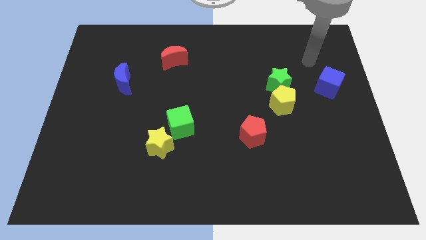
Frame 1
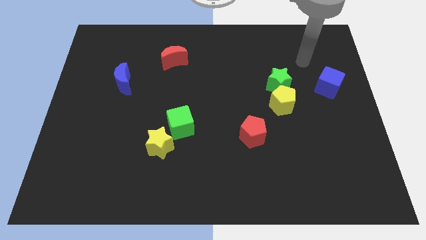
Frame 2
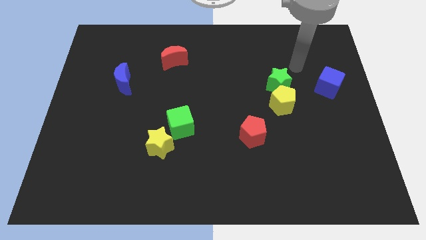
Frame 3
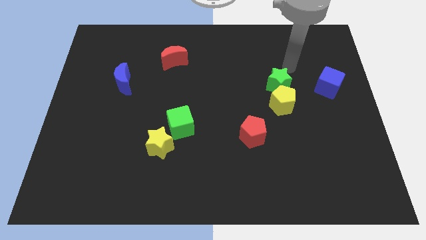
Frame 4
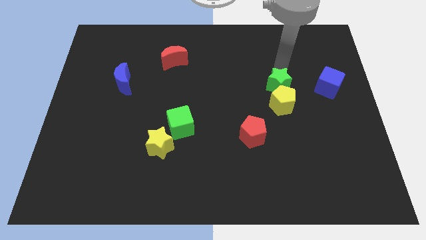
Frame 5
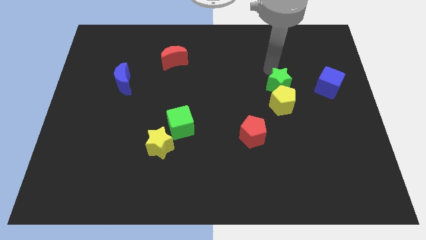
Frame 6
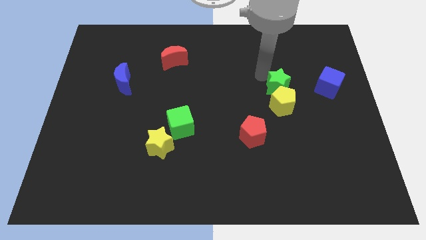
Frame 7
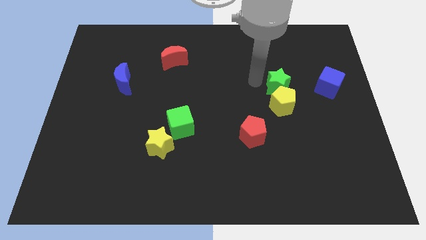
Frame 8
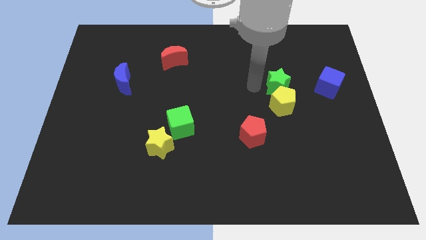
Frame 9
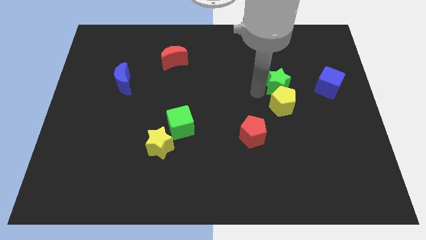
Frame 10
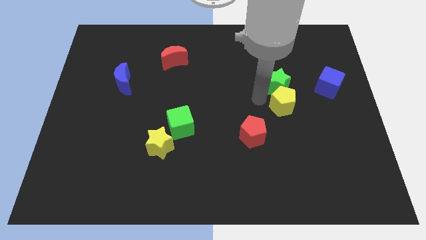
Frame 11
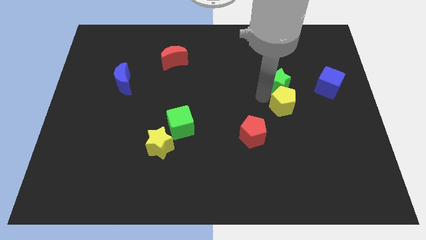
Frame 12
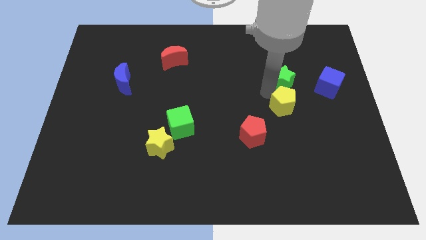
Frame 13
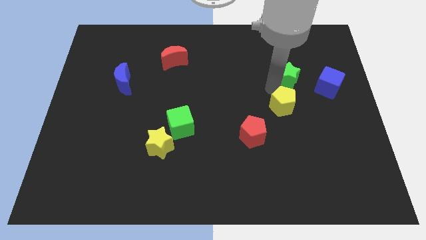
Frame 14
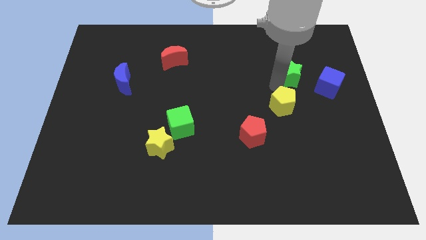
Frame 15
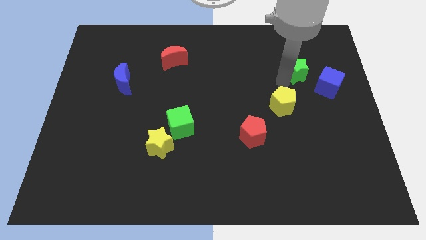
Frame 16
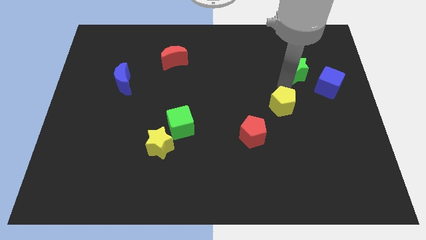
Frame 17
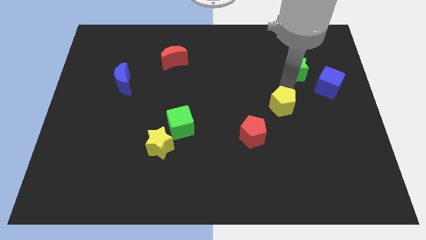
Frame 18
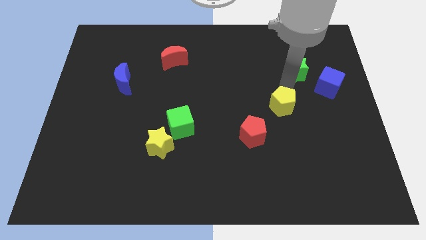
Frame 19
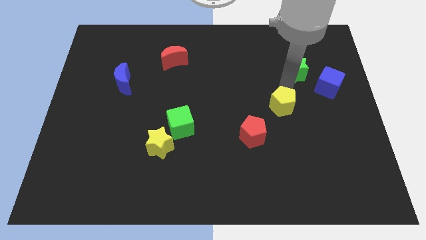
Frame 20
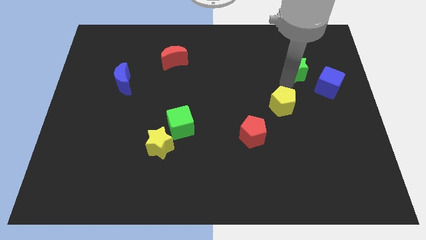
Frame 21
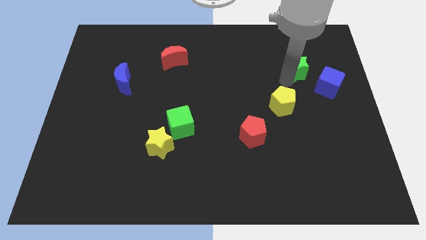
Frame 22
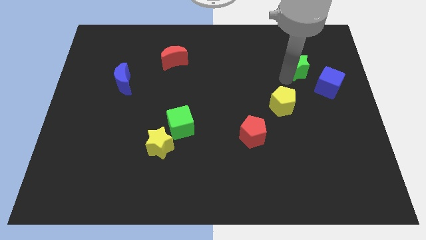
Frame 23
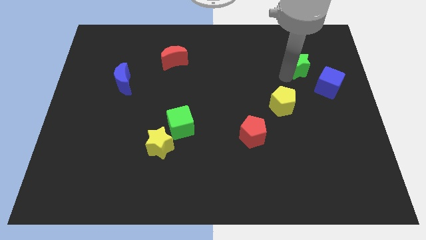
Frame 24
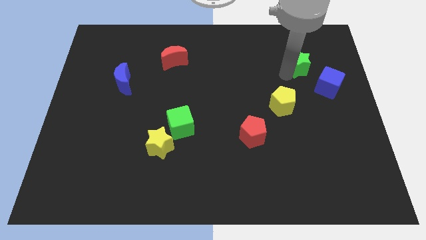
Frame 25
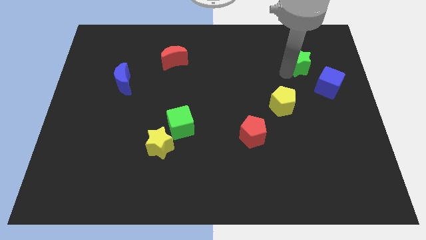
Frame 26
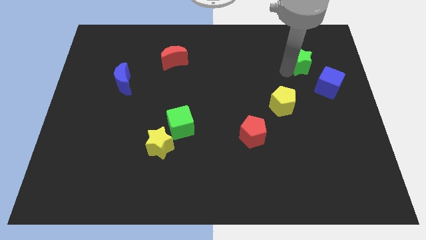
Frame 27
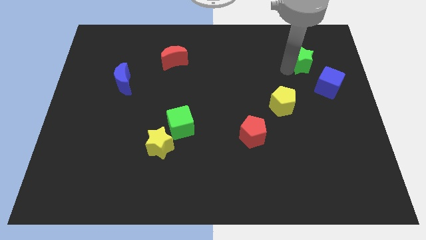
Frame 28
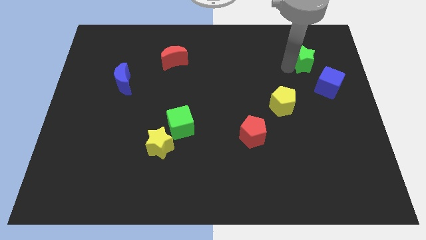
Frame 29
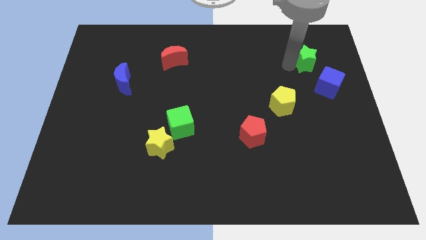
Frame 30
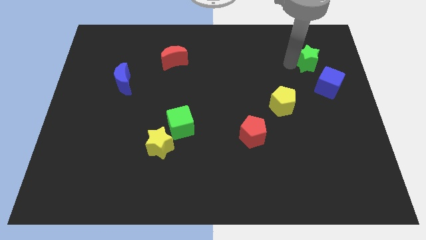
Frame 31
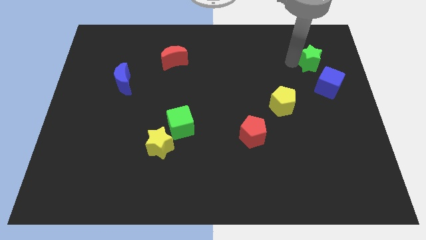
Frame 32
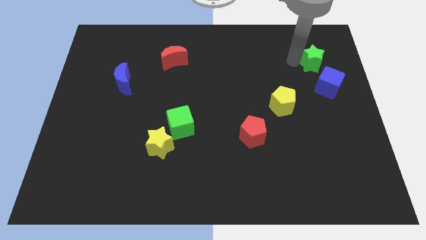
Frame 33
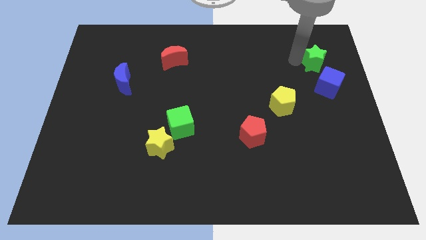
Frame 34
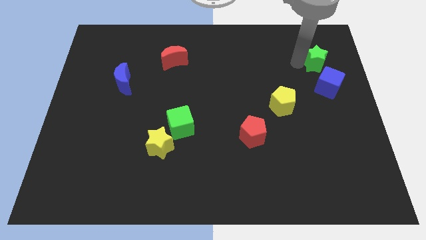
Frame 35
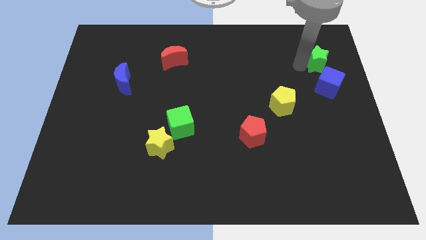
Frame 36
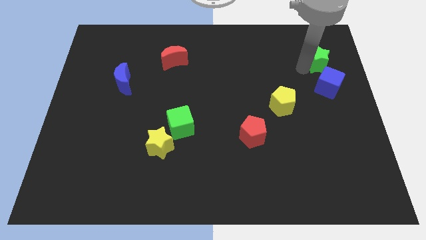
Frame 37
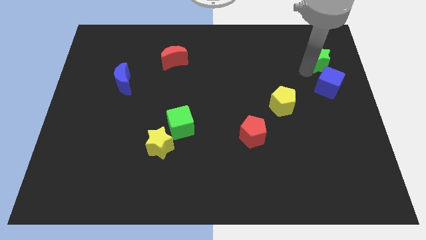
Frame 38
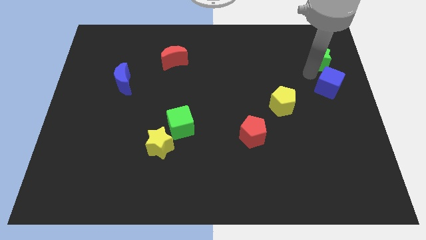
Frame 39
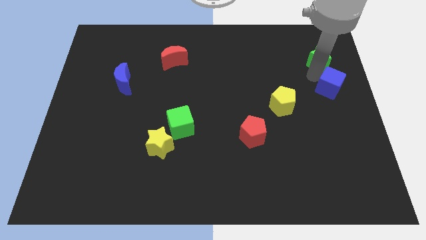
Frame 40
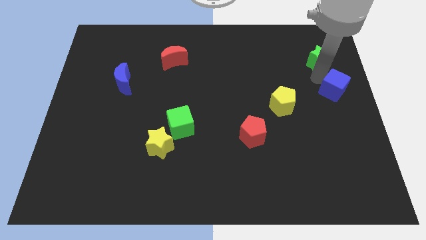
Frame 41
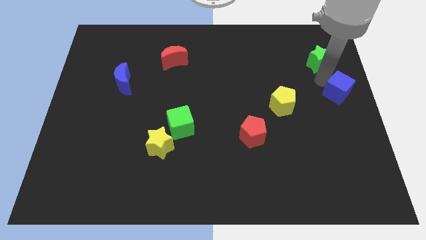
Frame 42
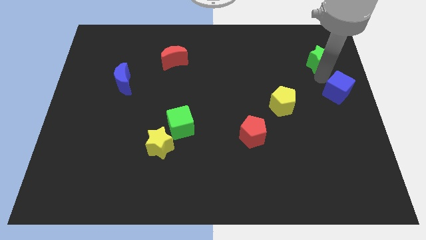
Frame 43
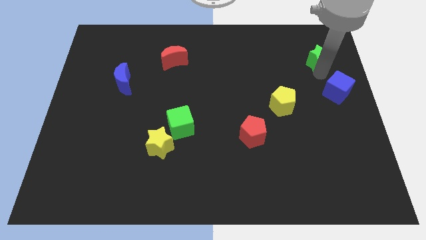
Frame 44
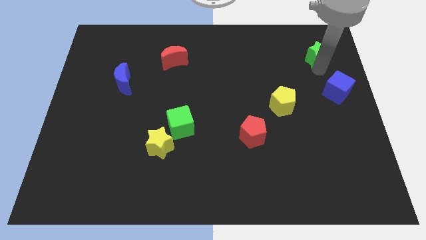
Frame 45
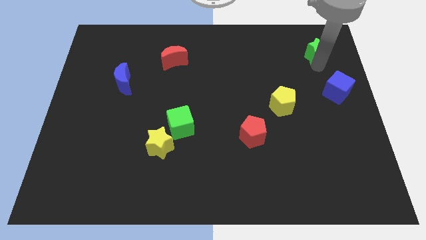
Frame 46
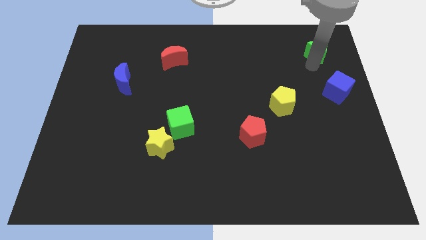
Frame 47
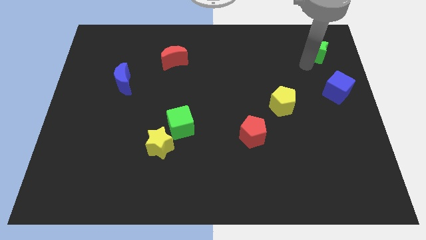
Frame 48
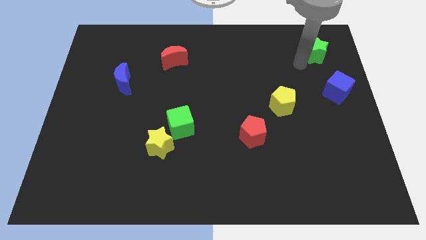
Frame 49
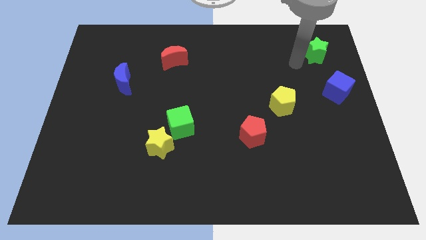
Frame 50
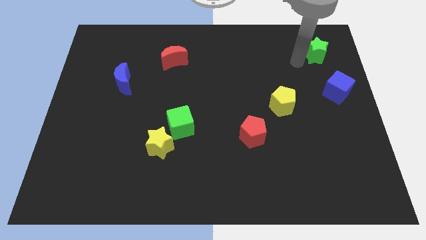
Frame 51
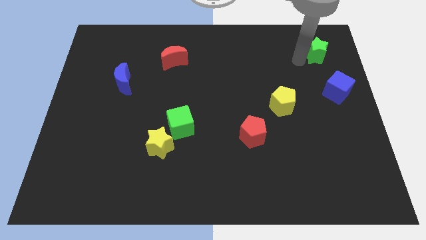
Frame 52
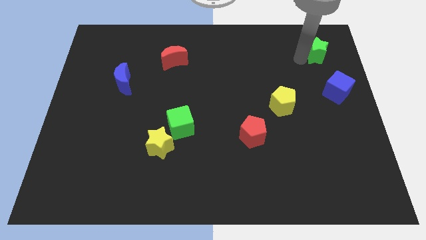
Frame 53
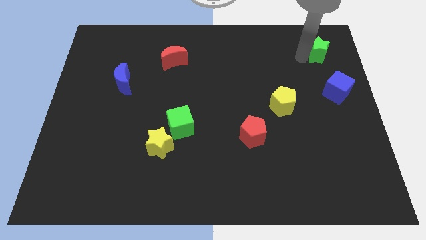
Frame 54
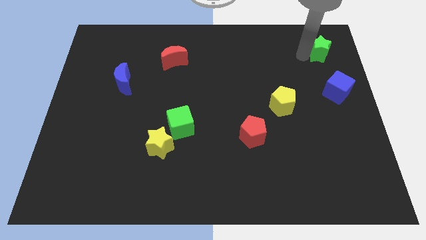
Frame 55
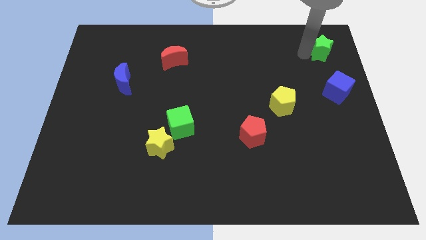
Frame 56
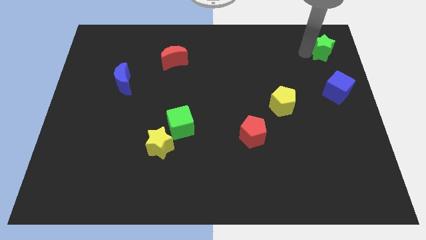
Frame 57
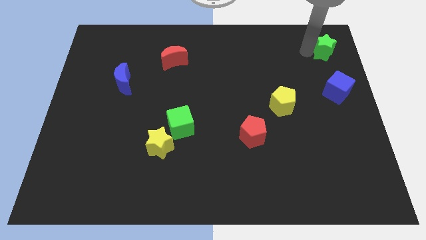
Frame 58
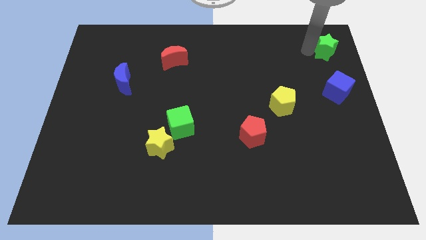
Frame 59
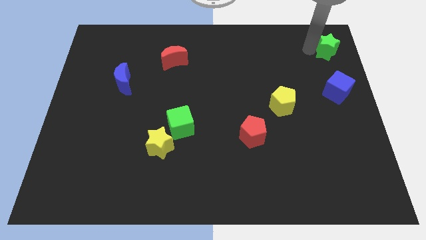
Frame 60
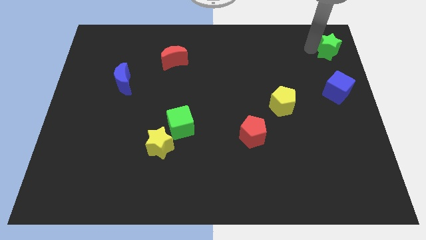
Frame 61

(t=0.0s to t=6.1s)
put the green star to the top right corner

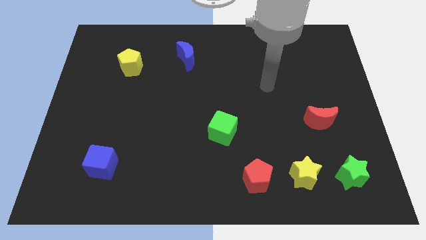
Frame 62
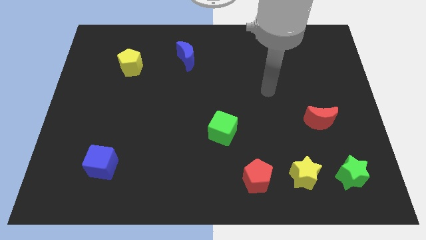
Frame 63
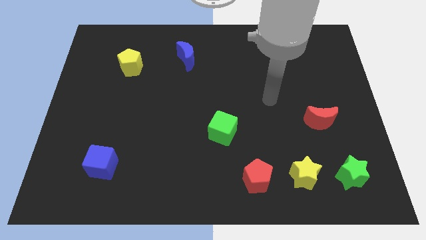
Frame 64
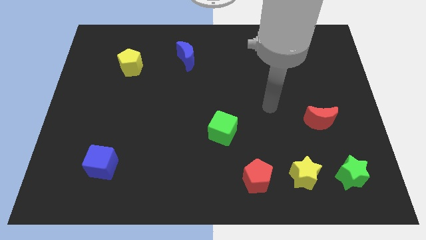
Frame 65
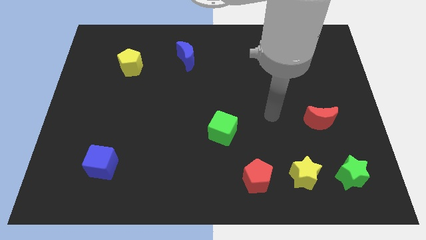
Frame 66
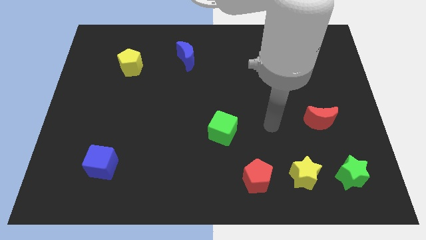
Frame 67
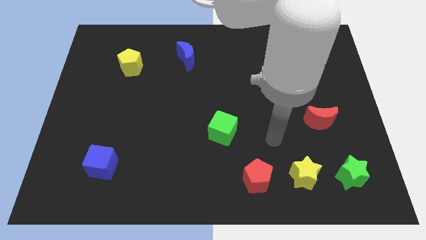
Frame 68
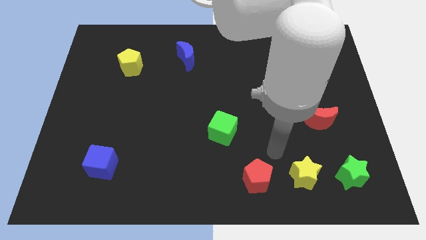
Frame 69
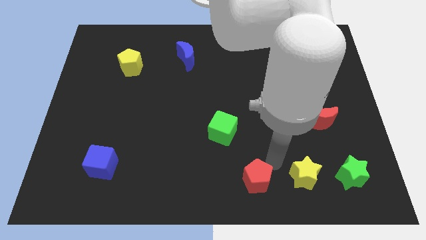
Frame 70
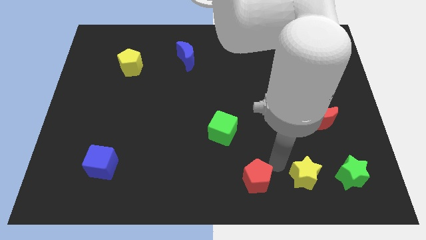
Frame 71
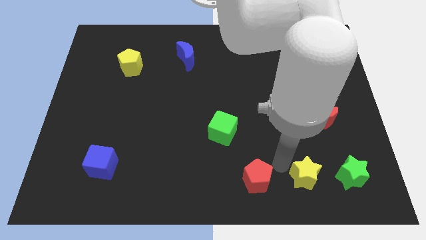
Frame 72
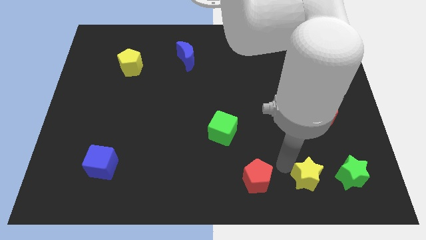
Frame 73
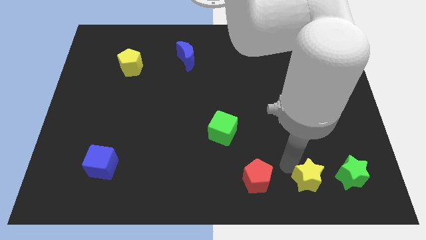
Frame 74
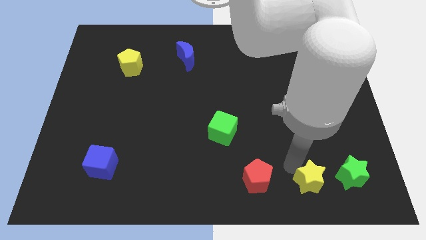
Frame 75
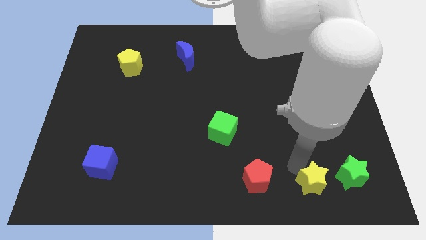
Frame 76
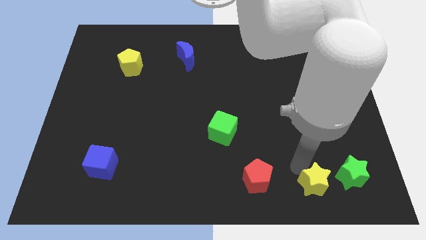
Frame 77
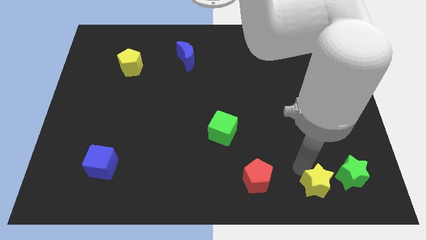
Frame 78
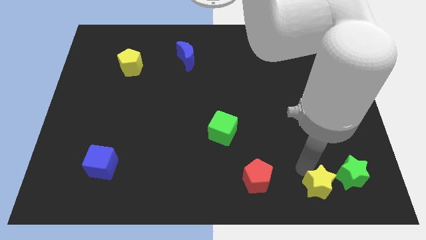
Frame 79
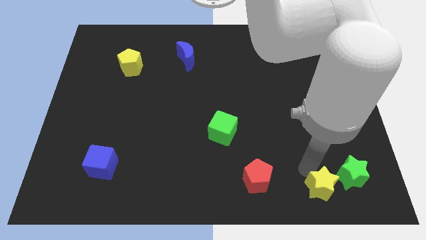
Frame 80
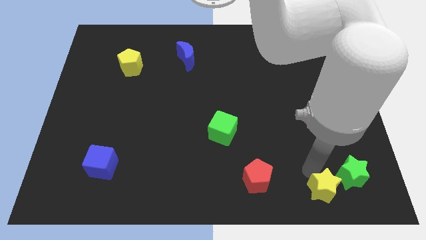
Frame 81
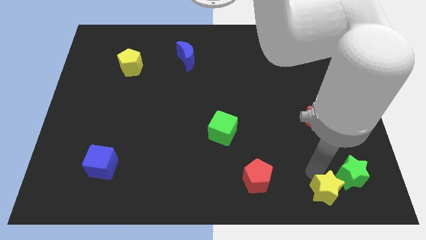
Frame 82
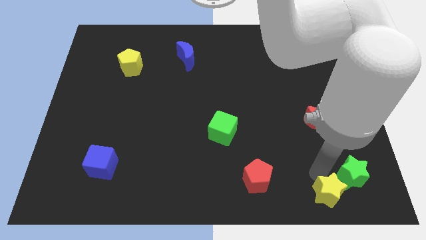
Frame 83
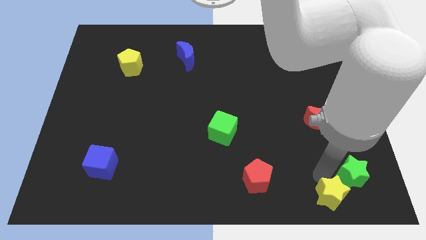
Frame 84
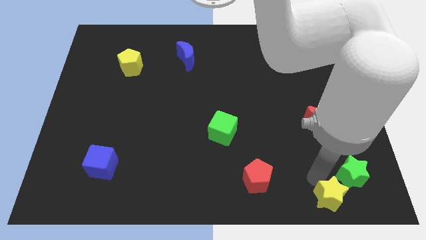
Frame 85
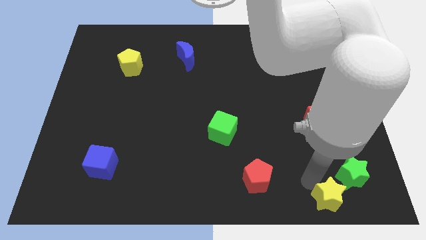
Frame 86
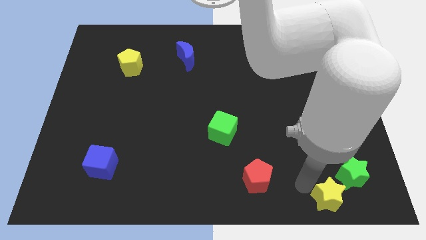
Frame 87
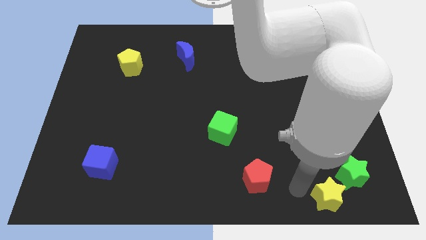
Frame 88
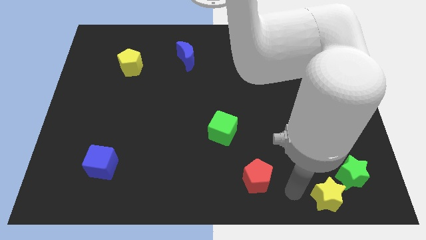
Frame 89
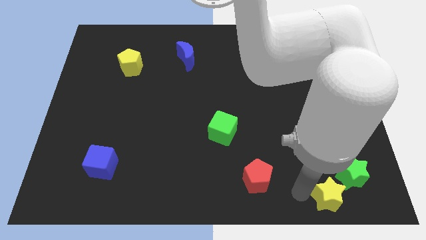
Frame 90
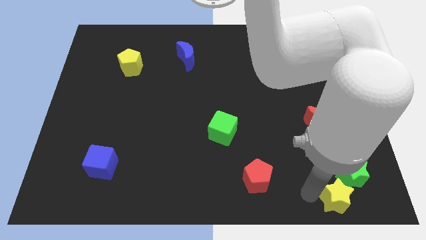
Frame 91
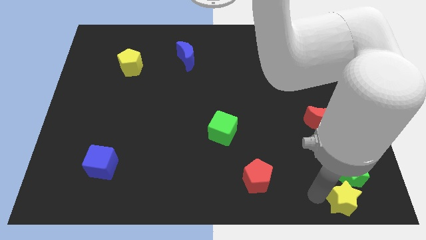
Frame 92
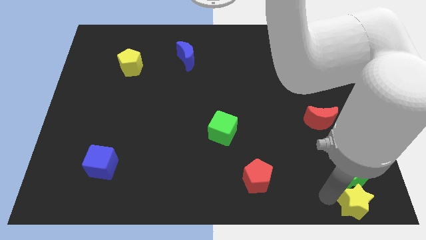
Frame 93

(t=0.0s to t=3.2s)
move the yellow star to the bottom right
